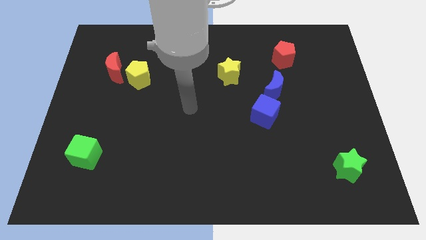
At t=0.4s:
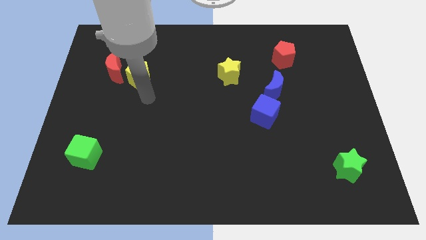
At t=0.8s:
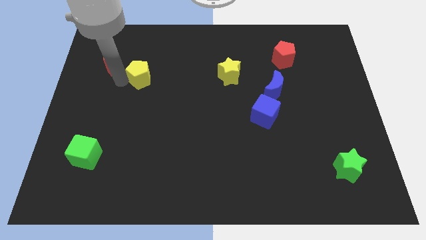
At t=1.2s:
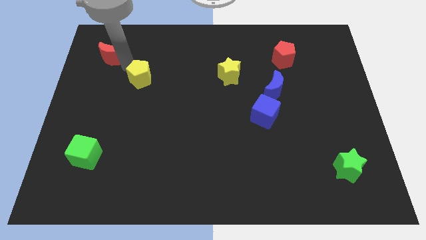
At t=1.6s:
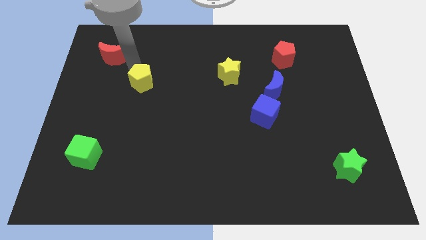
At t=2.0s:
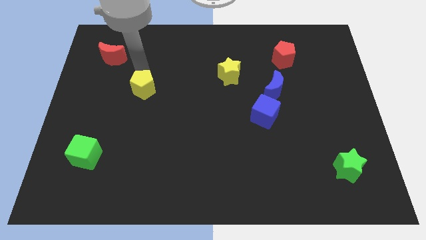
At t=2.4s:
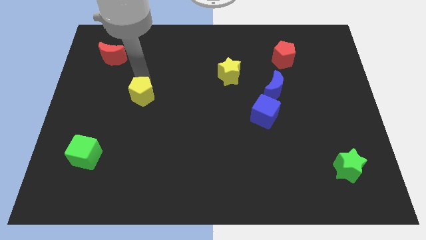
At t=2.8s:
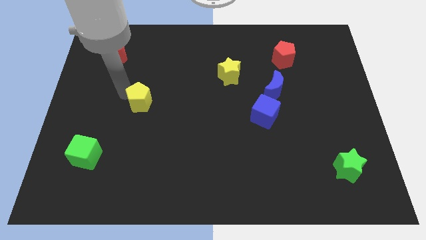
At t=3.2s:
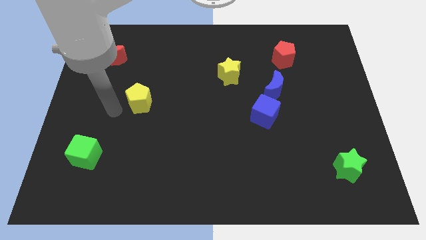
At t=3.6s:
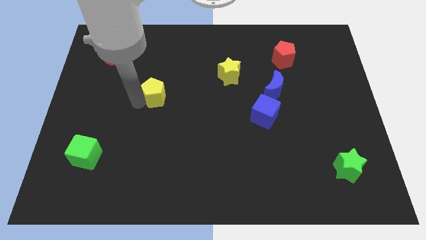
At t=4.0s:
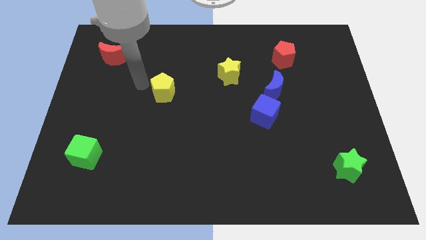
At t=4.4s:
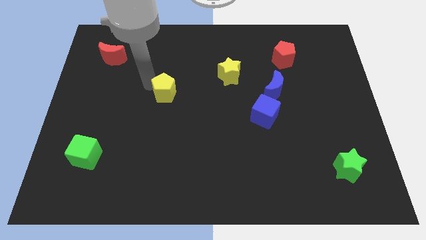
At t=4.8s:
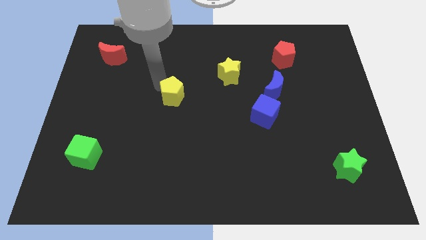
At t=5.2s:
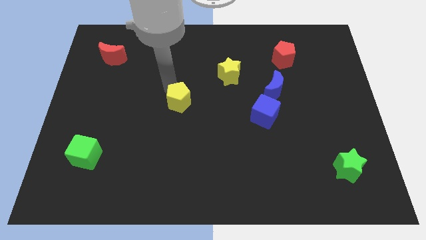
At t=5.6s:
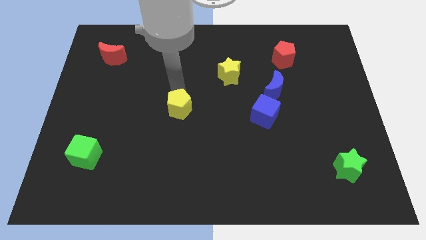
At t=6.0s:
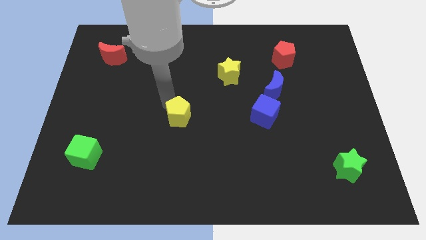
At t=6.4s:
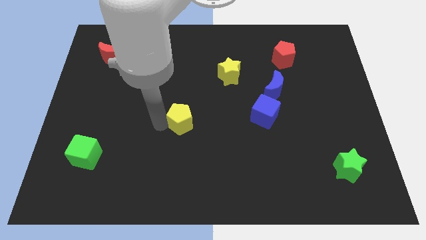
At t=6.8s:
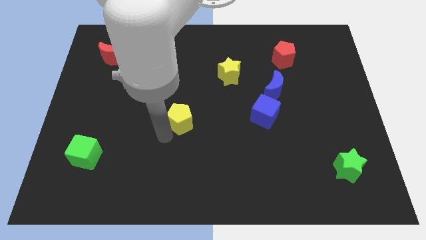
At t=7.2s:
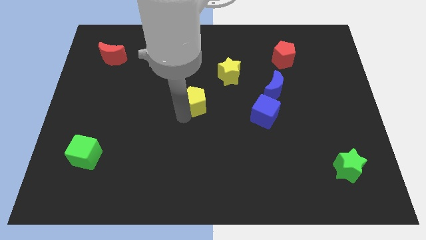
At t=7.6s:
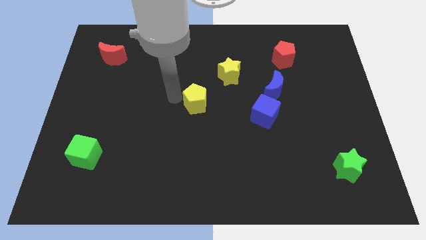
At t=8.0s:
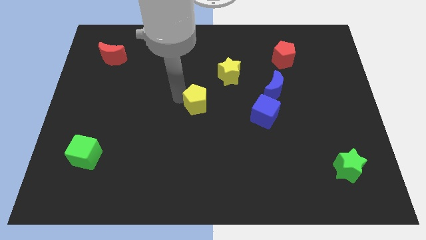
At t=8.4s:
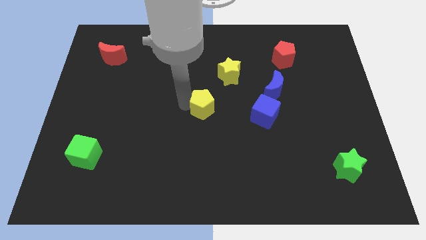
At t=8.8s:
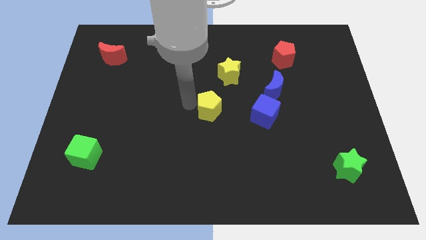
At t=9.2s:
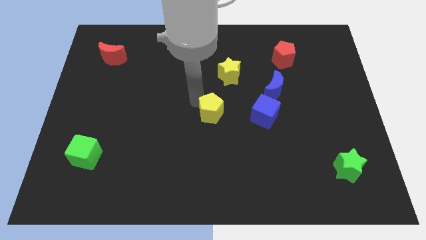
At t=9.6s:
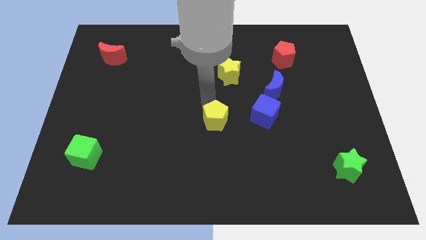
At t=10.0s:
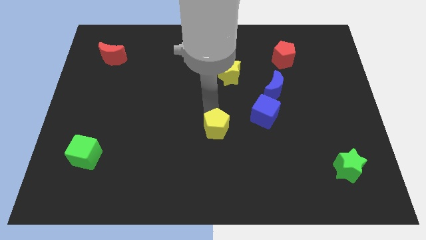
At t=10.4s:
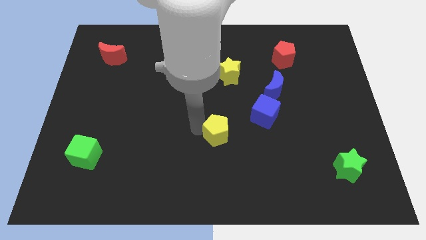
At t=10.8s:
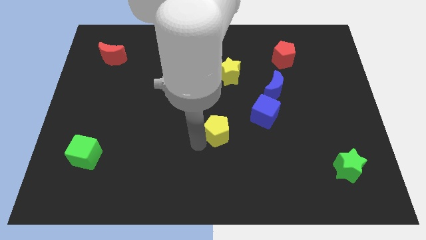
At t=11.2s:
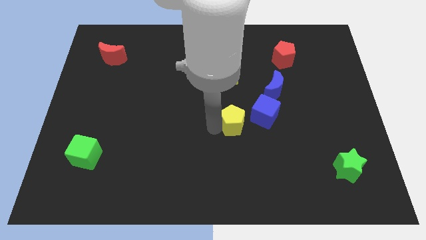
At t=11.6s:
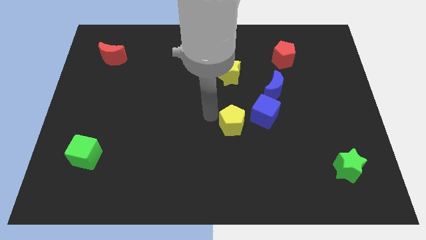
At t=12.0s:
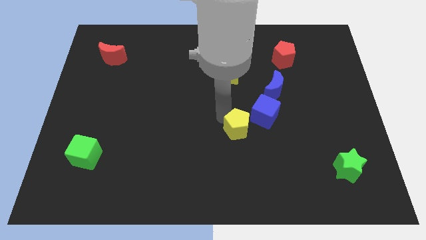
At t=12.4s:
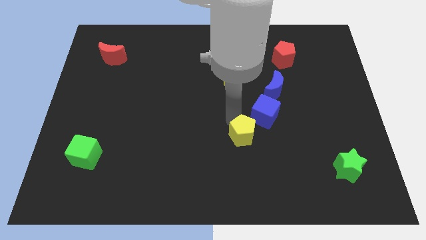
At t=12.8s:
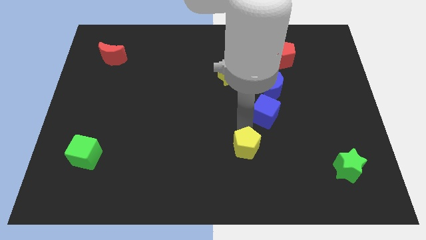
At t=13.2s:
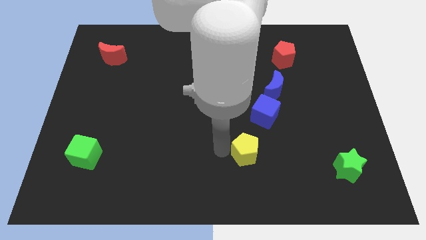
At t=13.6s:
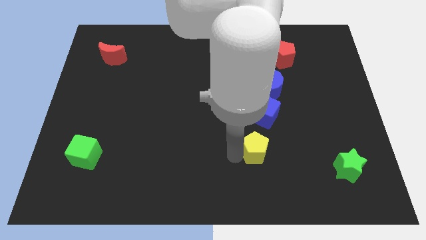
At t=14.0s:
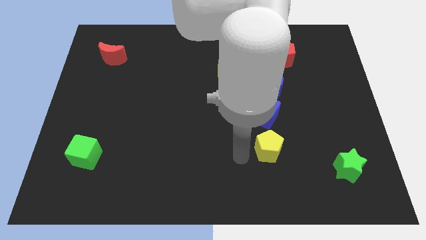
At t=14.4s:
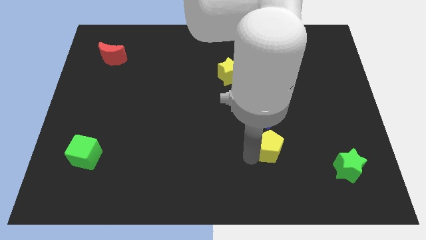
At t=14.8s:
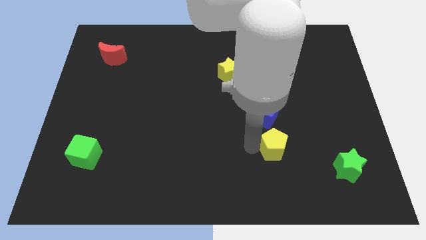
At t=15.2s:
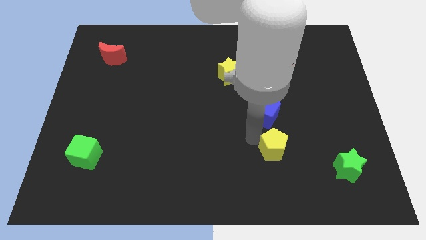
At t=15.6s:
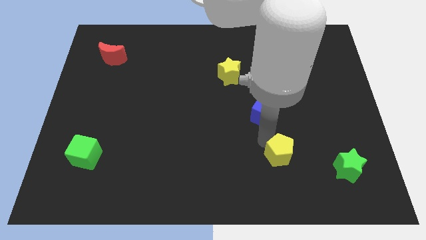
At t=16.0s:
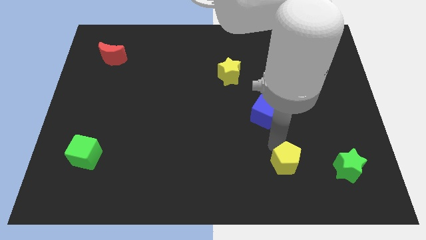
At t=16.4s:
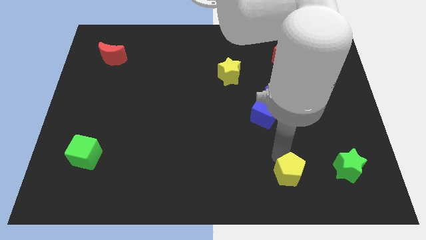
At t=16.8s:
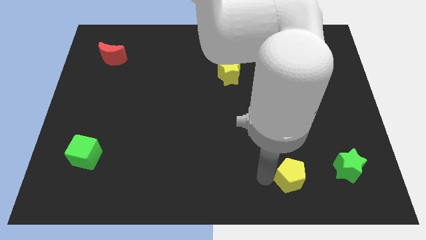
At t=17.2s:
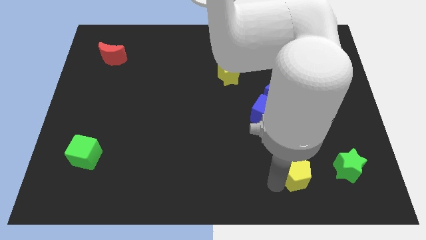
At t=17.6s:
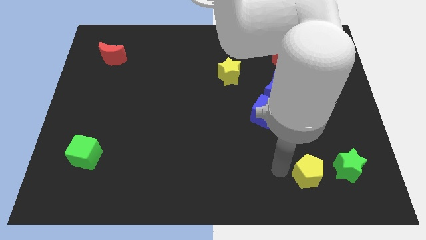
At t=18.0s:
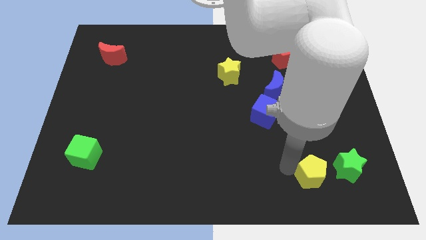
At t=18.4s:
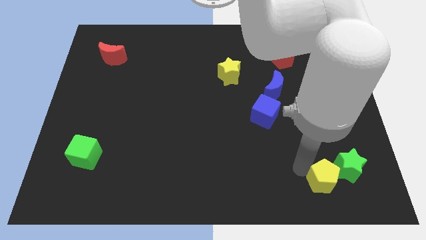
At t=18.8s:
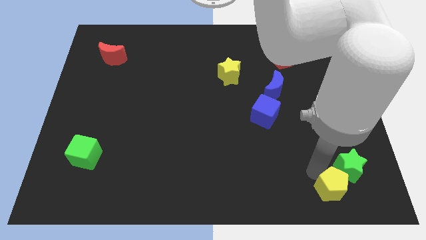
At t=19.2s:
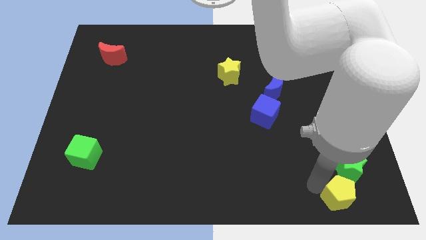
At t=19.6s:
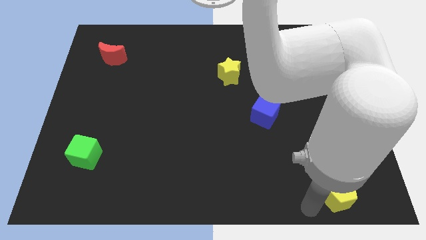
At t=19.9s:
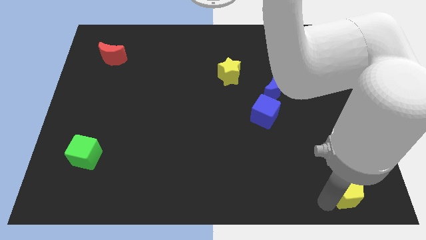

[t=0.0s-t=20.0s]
move the yellow pentagon to the bottom right corner

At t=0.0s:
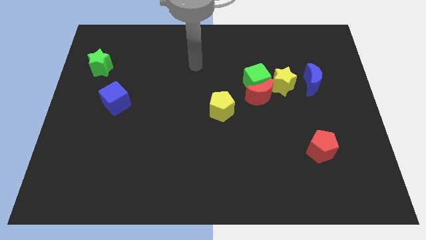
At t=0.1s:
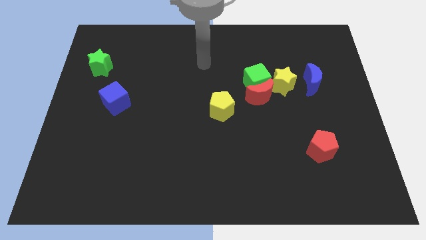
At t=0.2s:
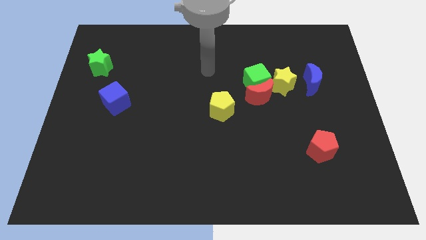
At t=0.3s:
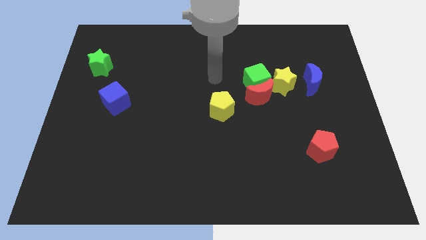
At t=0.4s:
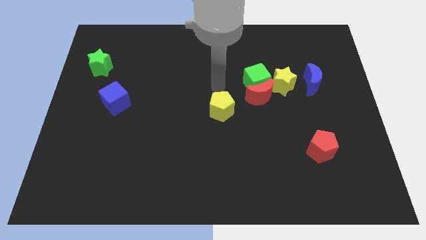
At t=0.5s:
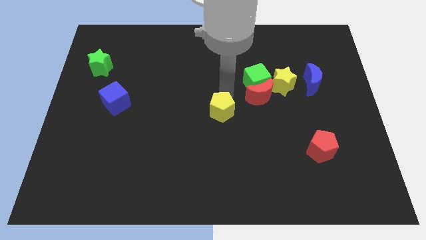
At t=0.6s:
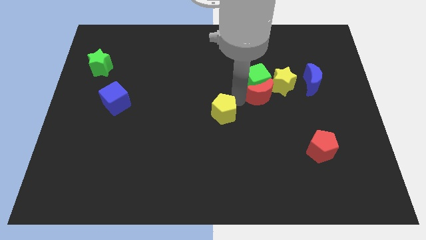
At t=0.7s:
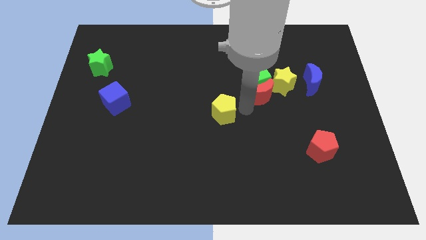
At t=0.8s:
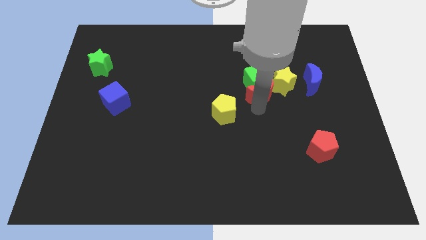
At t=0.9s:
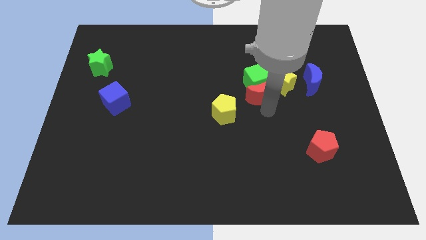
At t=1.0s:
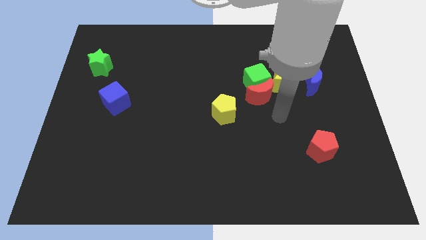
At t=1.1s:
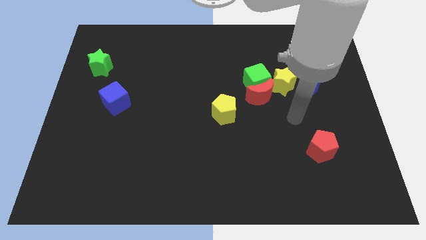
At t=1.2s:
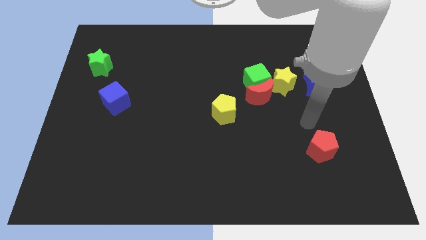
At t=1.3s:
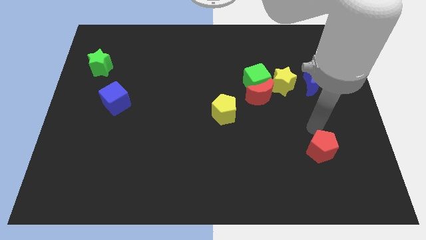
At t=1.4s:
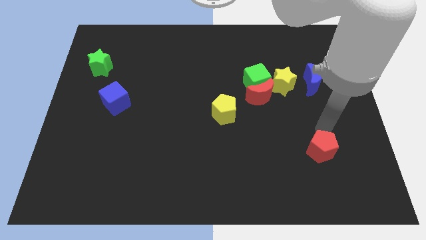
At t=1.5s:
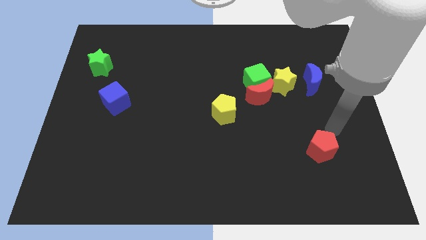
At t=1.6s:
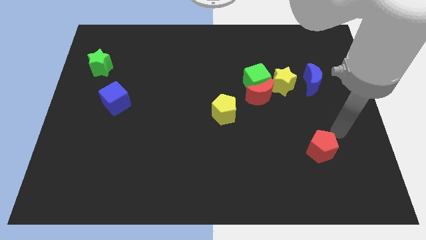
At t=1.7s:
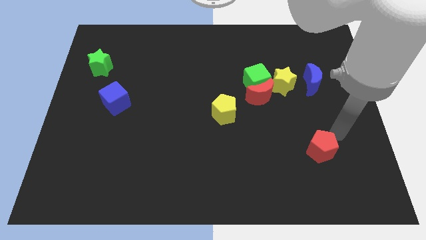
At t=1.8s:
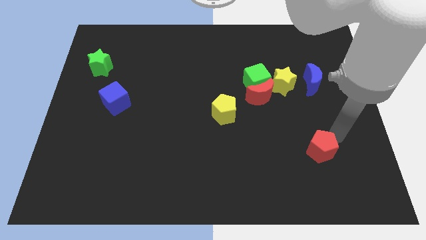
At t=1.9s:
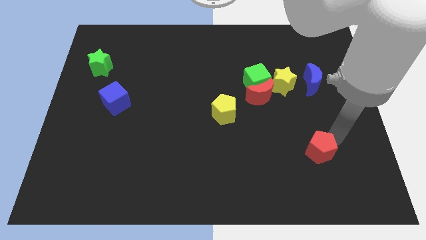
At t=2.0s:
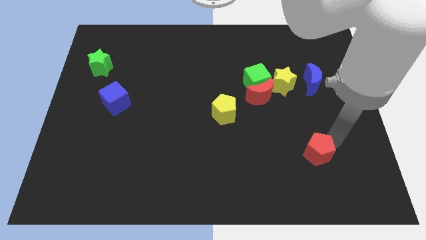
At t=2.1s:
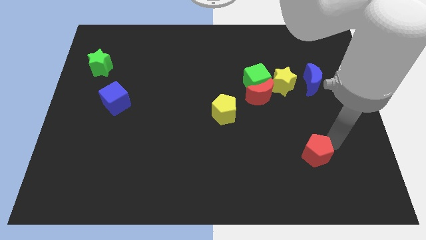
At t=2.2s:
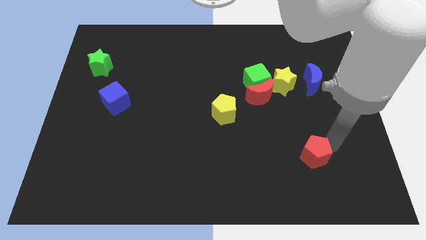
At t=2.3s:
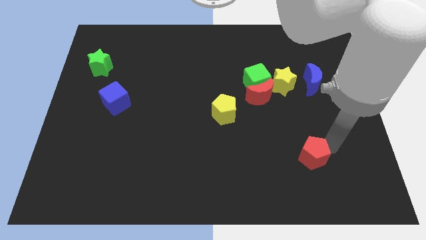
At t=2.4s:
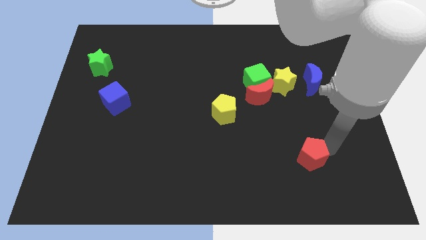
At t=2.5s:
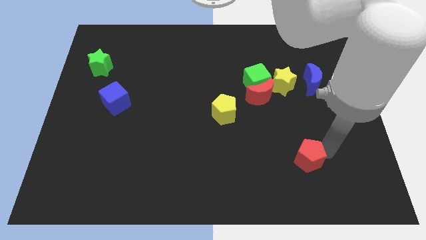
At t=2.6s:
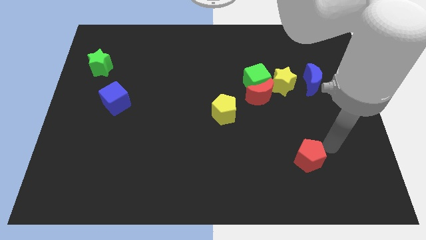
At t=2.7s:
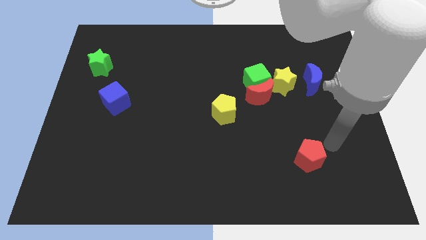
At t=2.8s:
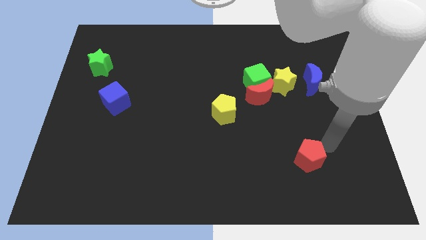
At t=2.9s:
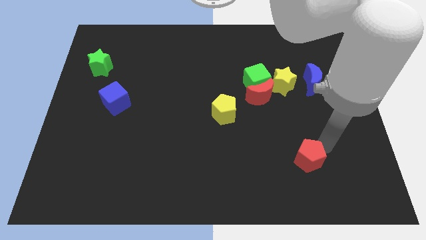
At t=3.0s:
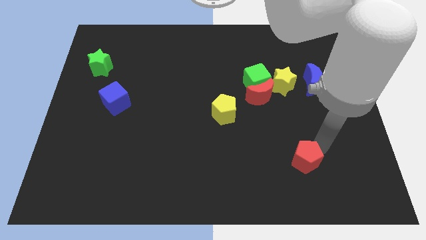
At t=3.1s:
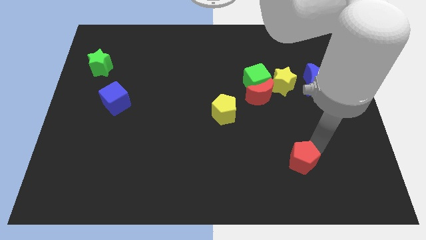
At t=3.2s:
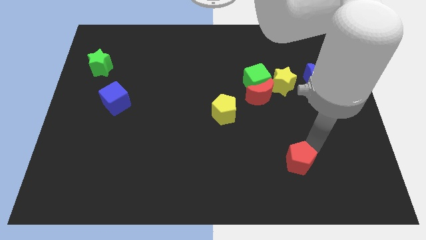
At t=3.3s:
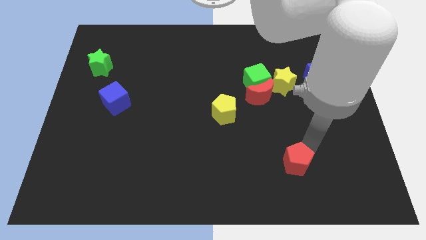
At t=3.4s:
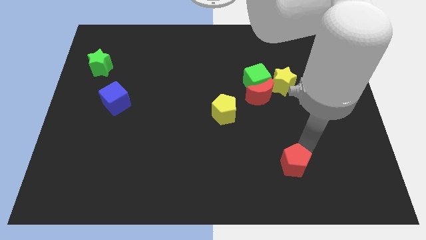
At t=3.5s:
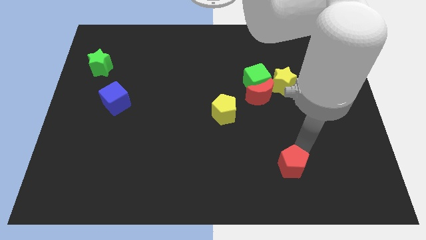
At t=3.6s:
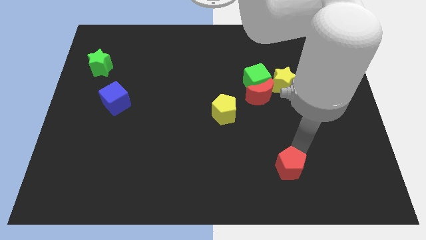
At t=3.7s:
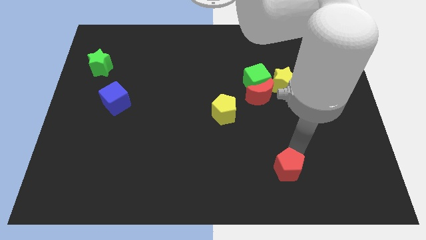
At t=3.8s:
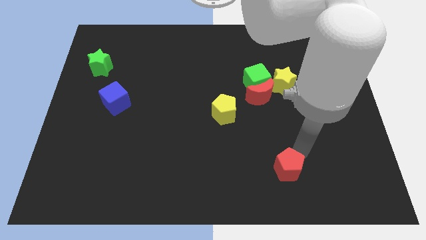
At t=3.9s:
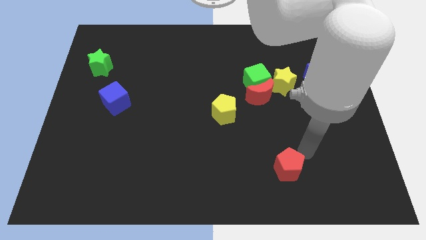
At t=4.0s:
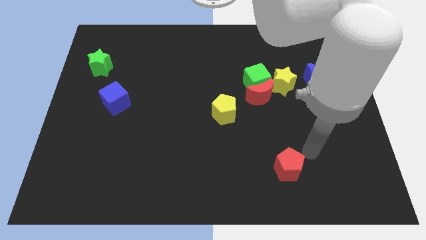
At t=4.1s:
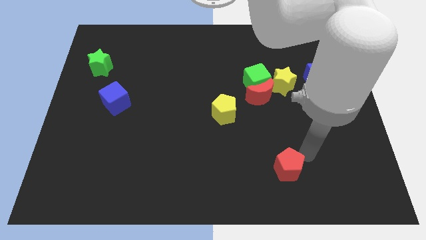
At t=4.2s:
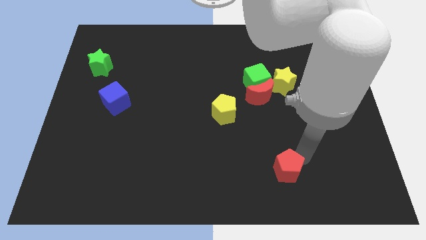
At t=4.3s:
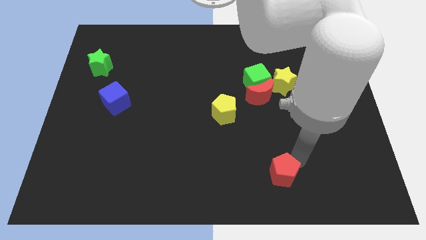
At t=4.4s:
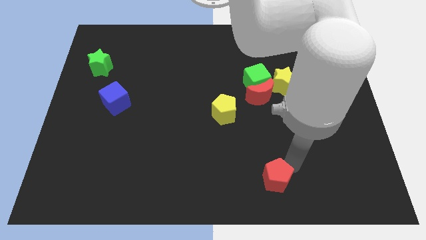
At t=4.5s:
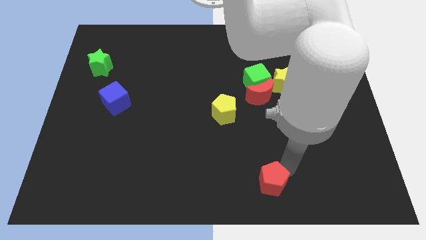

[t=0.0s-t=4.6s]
move the red pentagon to the bottom side
